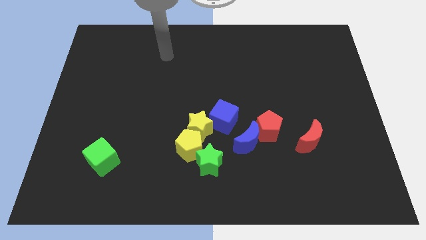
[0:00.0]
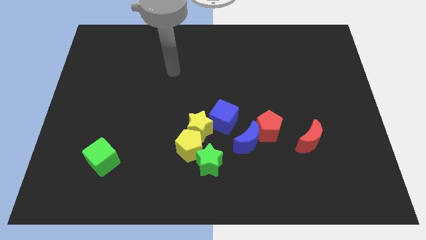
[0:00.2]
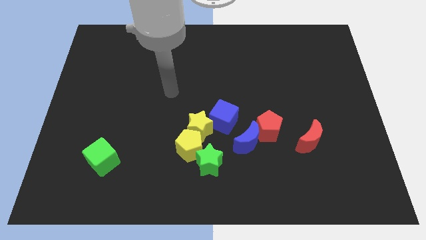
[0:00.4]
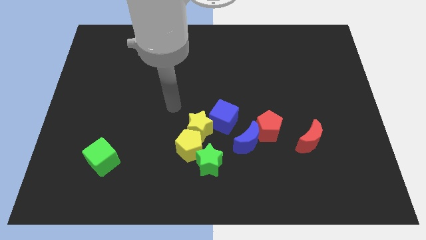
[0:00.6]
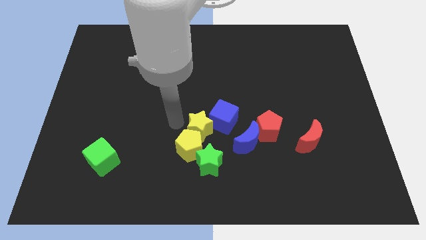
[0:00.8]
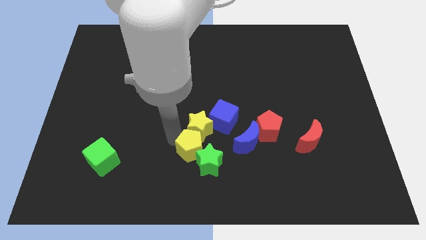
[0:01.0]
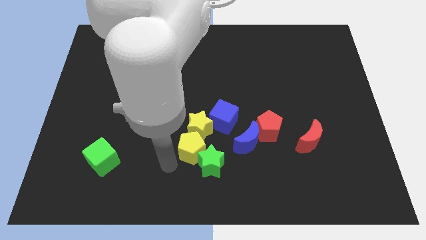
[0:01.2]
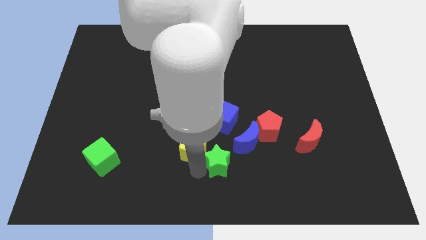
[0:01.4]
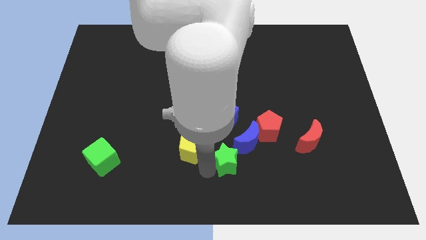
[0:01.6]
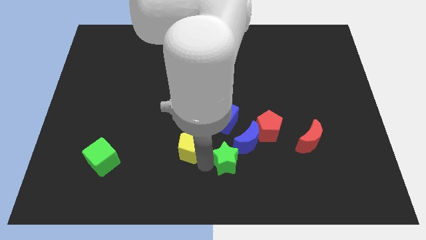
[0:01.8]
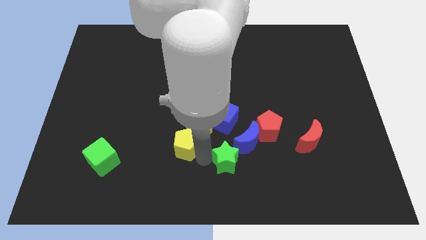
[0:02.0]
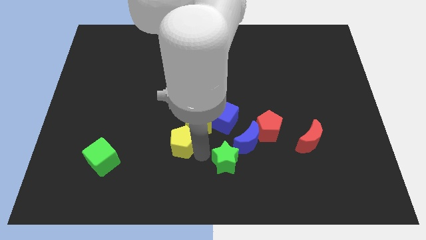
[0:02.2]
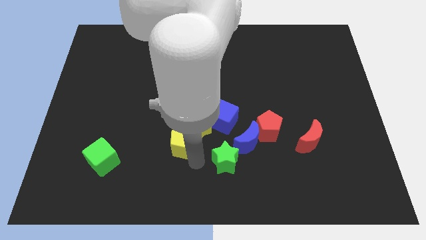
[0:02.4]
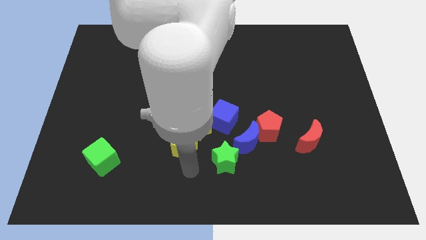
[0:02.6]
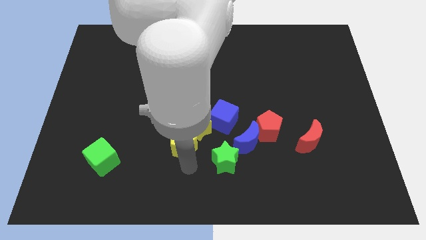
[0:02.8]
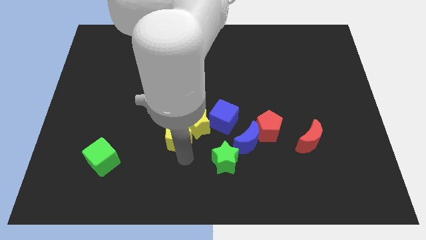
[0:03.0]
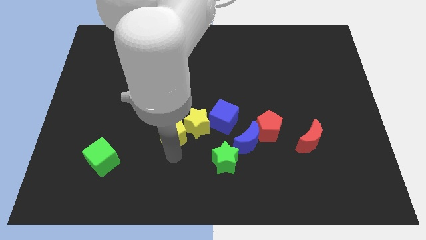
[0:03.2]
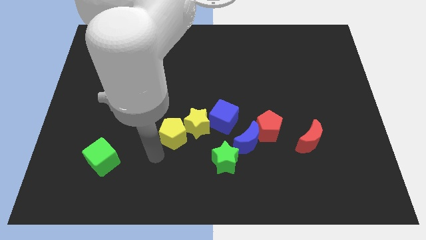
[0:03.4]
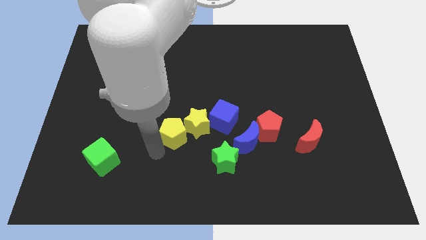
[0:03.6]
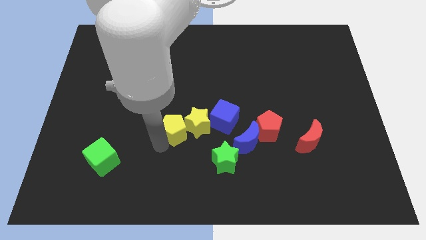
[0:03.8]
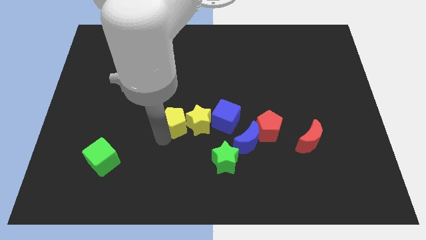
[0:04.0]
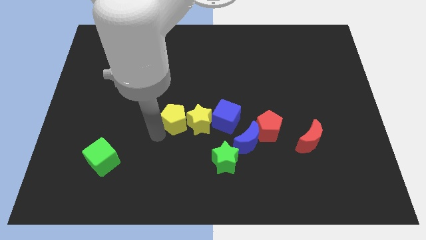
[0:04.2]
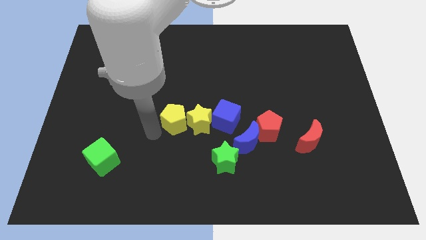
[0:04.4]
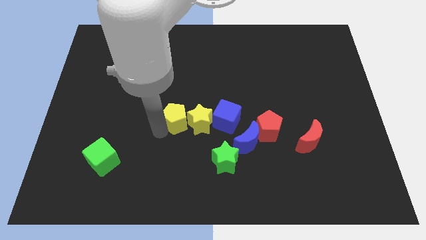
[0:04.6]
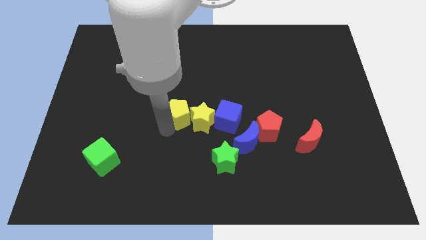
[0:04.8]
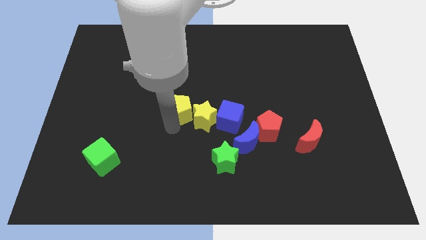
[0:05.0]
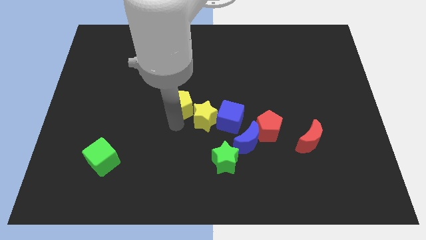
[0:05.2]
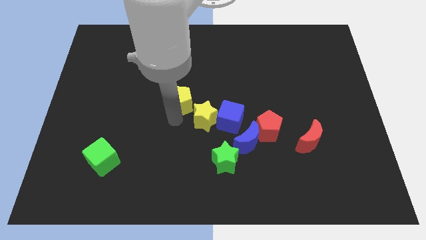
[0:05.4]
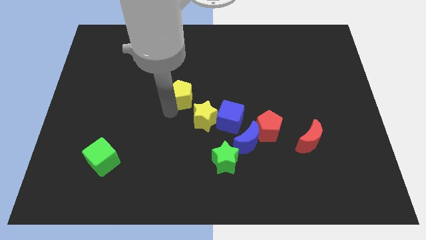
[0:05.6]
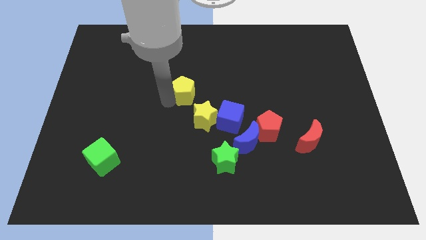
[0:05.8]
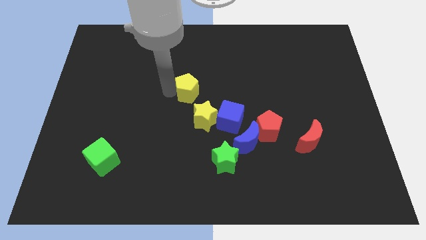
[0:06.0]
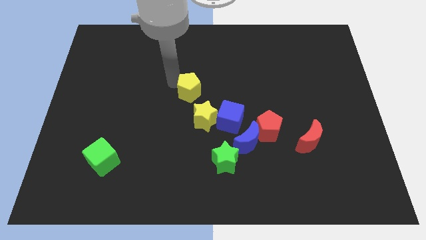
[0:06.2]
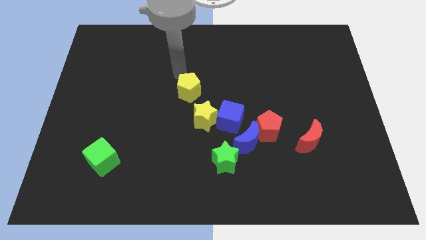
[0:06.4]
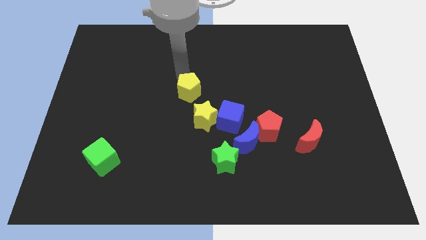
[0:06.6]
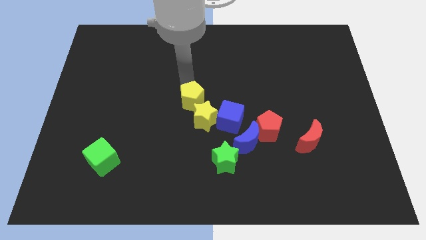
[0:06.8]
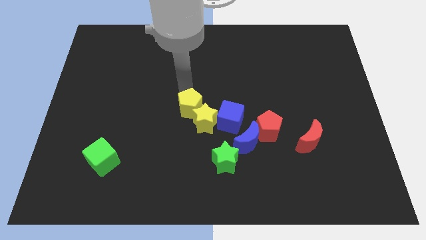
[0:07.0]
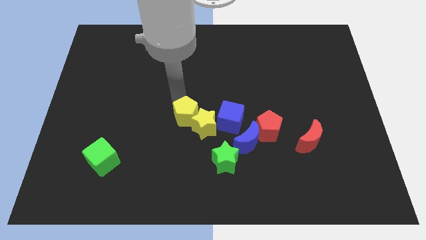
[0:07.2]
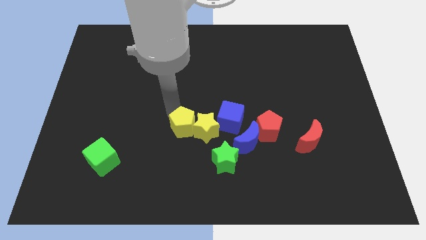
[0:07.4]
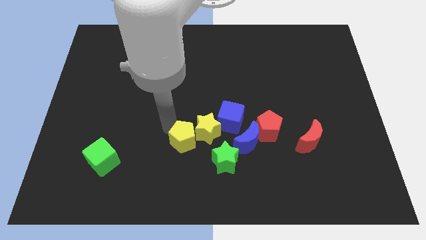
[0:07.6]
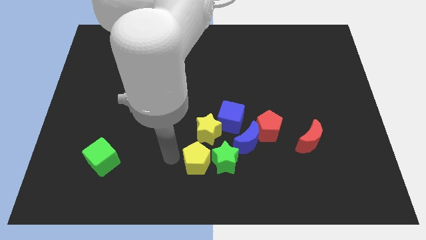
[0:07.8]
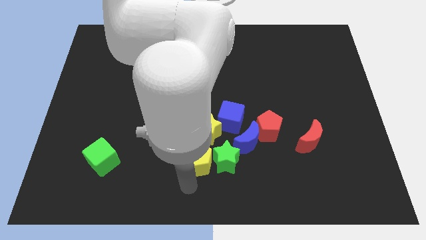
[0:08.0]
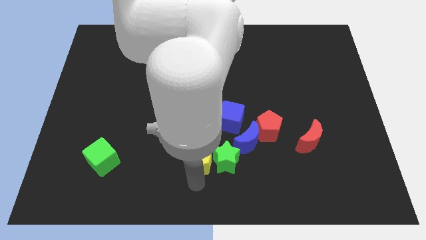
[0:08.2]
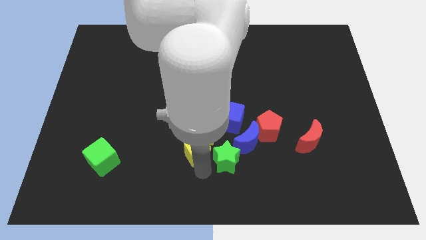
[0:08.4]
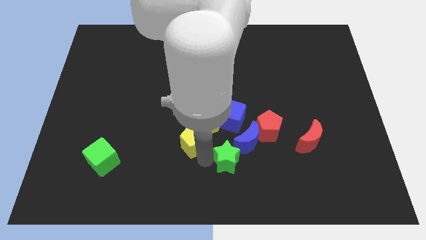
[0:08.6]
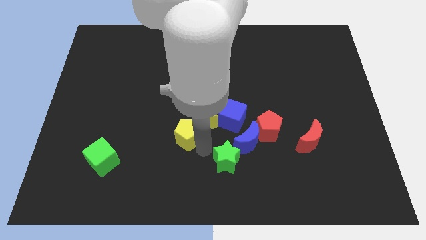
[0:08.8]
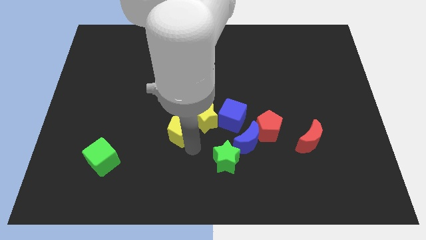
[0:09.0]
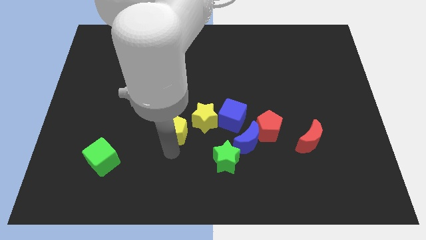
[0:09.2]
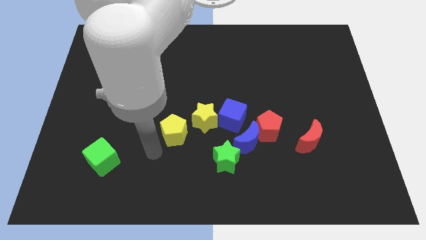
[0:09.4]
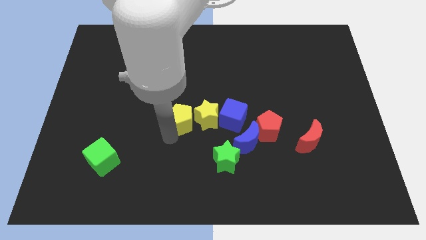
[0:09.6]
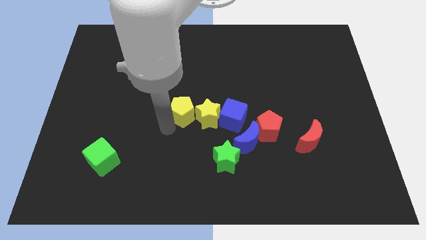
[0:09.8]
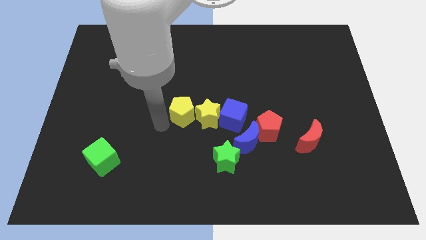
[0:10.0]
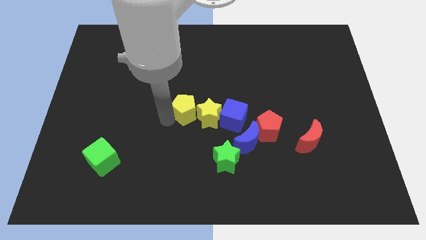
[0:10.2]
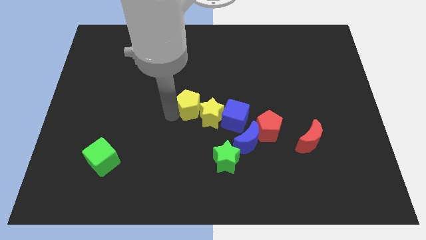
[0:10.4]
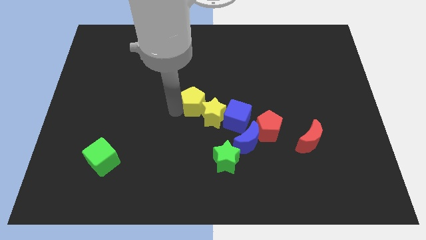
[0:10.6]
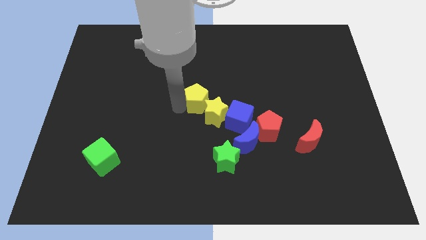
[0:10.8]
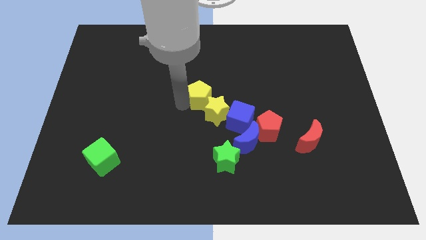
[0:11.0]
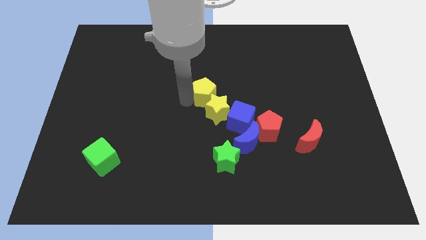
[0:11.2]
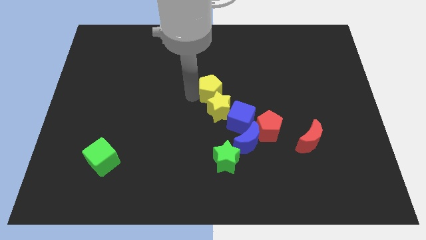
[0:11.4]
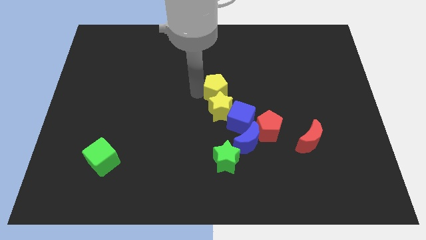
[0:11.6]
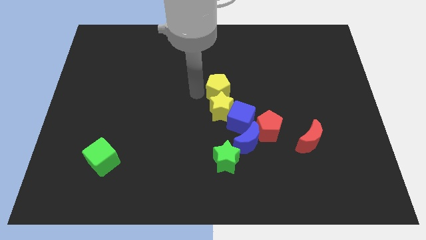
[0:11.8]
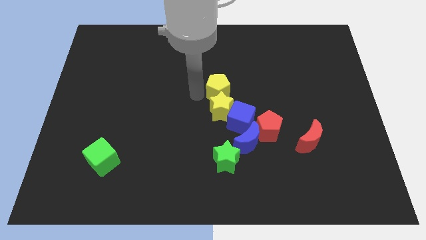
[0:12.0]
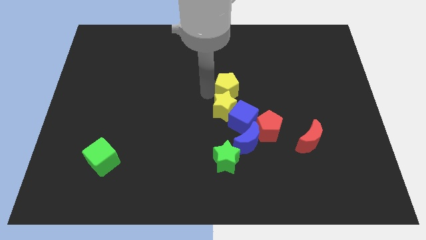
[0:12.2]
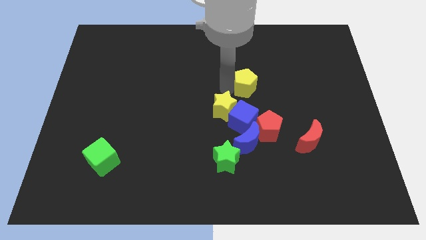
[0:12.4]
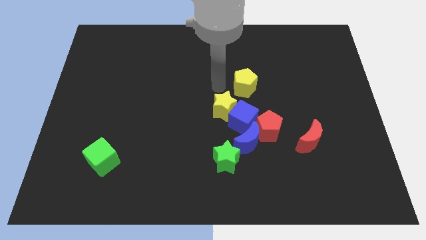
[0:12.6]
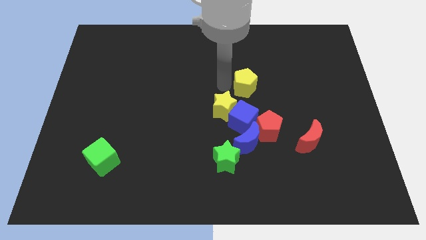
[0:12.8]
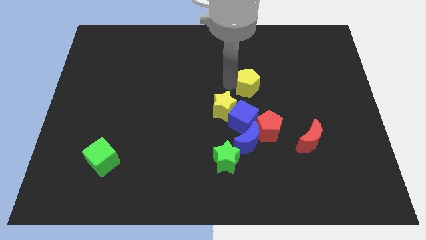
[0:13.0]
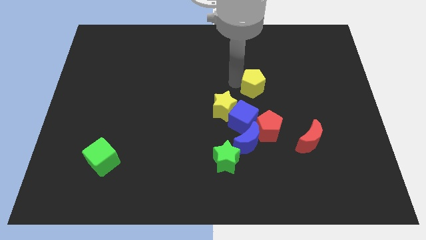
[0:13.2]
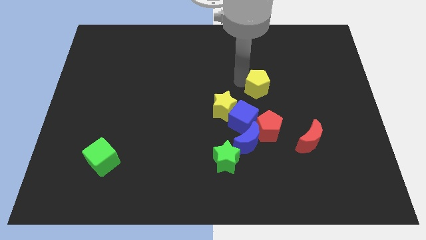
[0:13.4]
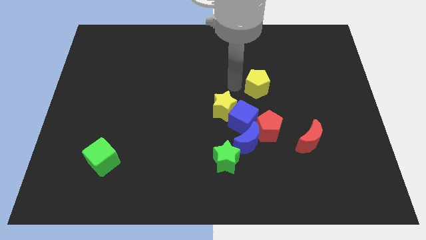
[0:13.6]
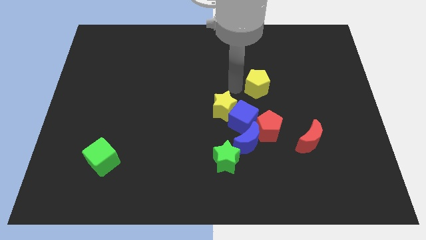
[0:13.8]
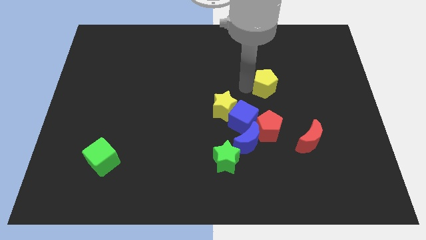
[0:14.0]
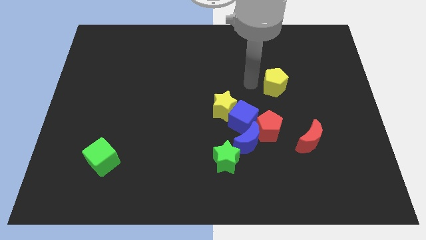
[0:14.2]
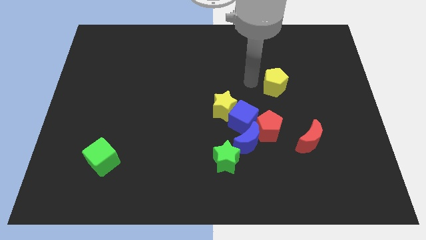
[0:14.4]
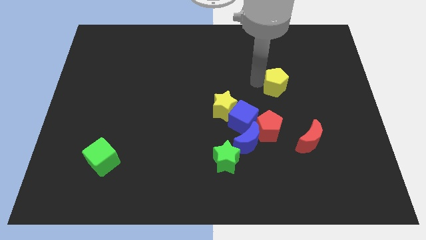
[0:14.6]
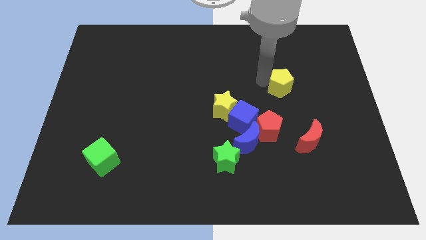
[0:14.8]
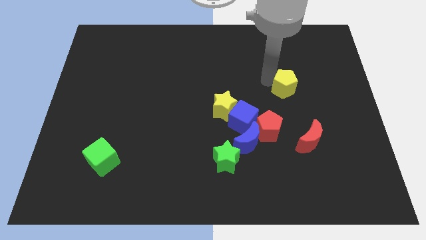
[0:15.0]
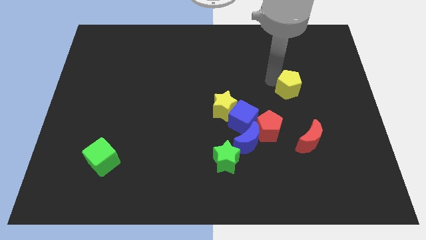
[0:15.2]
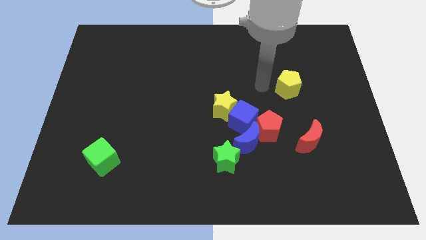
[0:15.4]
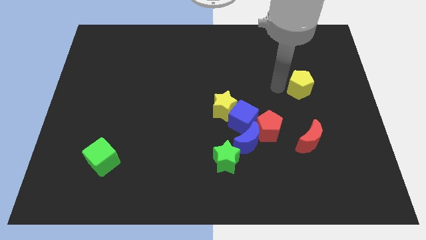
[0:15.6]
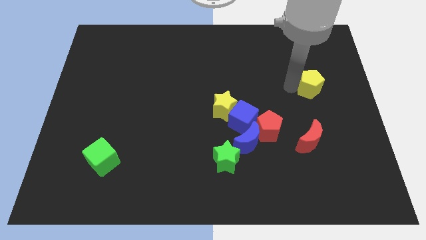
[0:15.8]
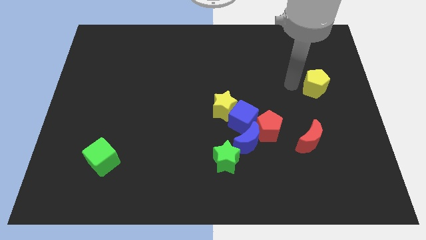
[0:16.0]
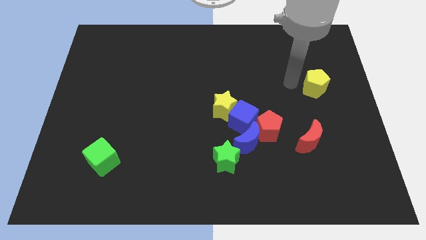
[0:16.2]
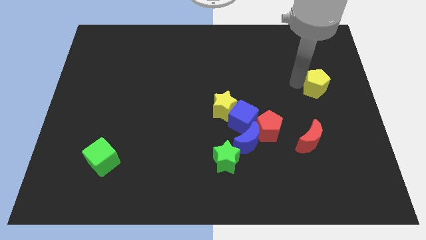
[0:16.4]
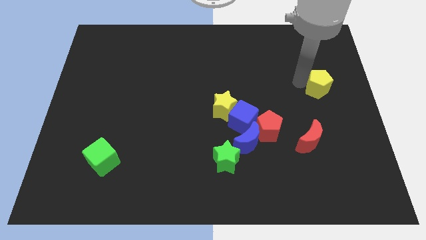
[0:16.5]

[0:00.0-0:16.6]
move the yellow pentagon to the center right
